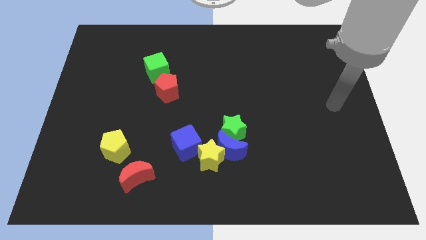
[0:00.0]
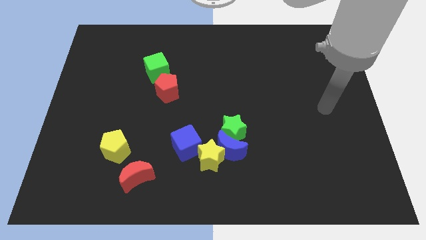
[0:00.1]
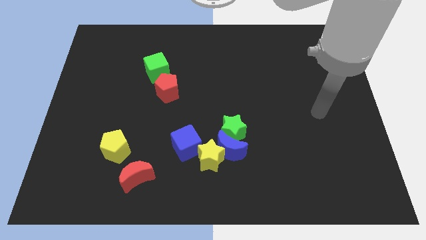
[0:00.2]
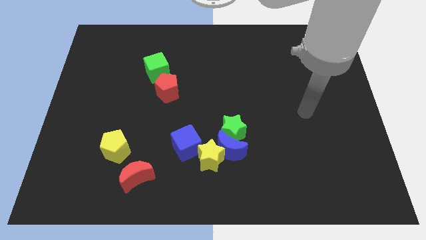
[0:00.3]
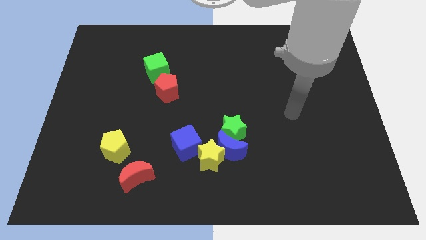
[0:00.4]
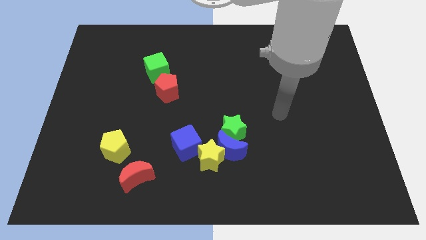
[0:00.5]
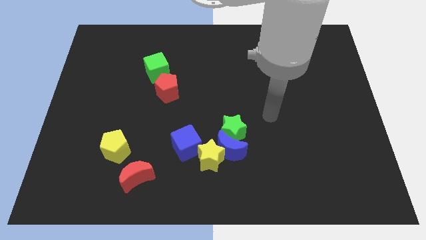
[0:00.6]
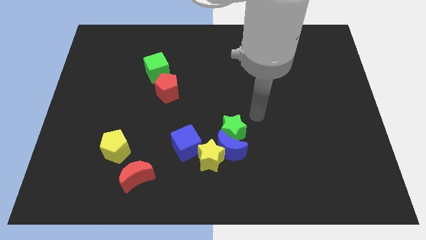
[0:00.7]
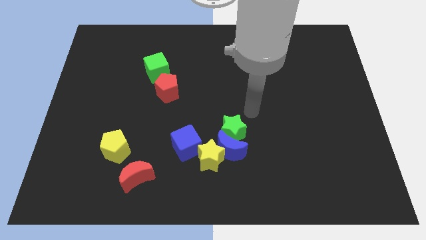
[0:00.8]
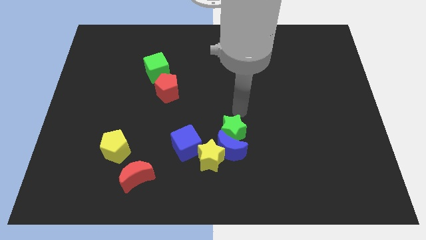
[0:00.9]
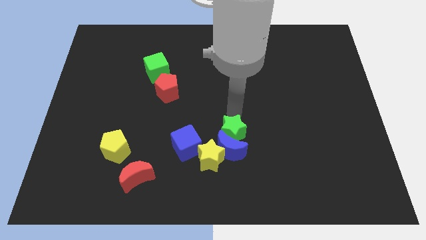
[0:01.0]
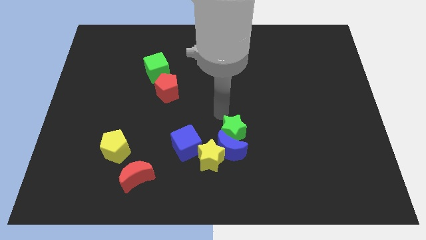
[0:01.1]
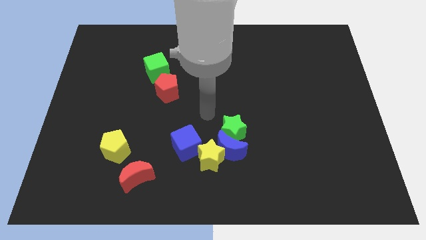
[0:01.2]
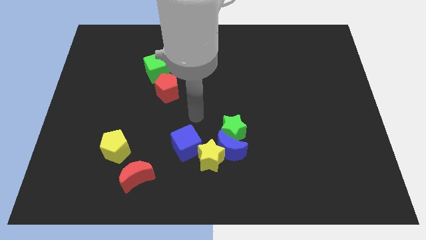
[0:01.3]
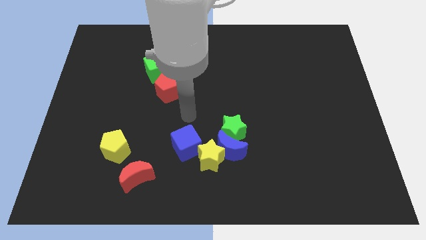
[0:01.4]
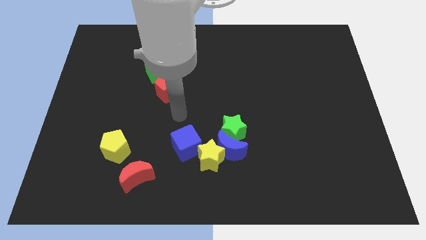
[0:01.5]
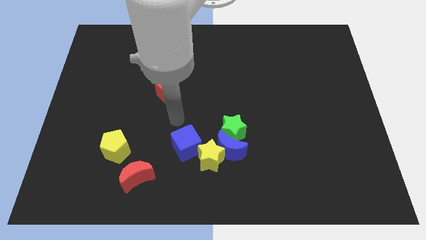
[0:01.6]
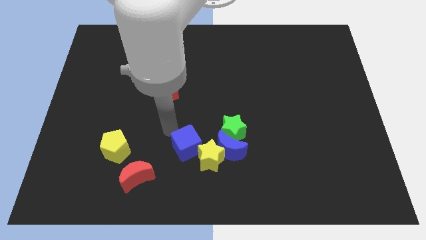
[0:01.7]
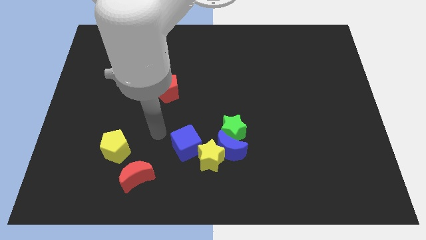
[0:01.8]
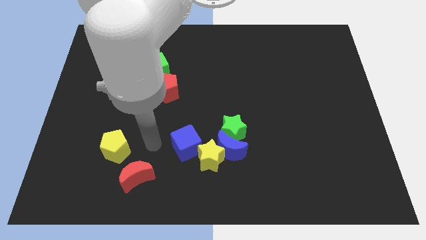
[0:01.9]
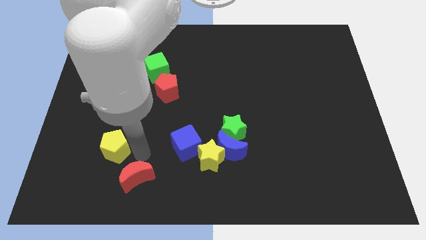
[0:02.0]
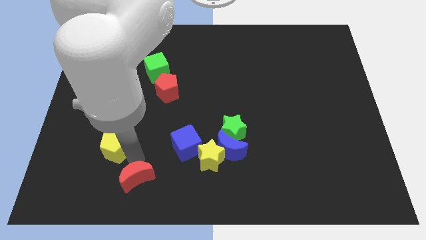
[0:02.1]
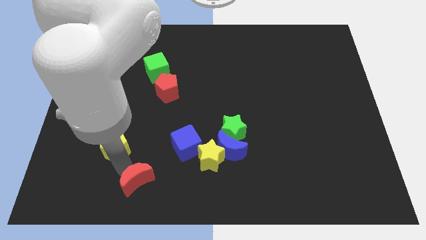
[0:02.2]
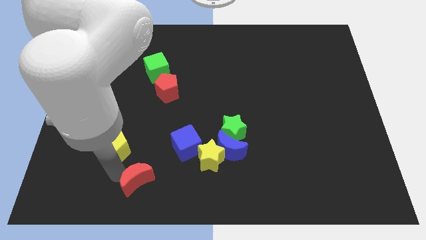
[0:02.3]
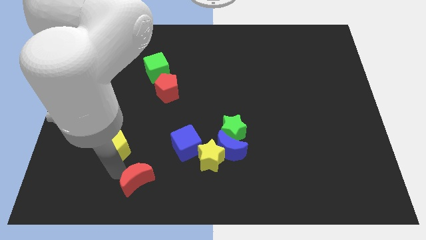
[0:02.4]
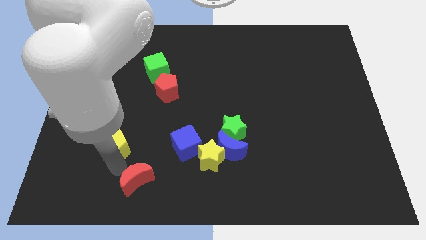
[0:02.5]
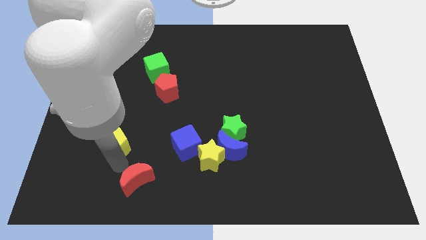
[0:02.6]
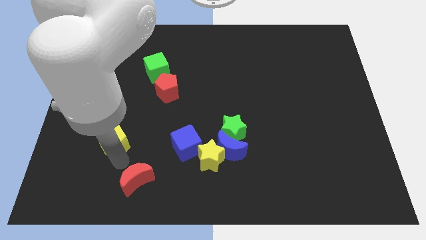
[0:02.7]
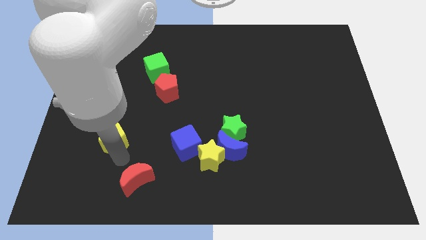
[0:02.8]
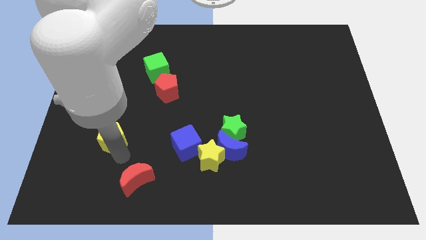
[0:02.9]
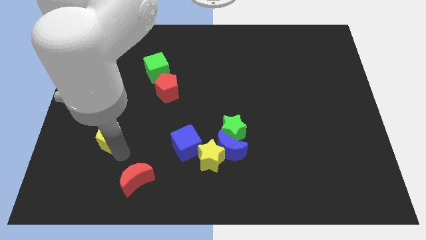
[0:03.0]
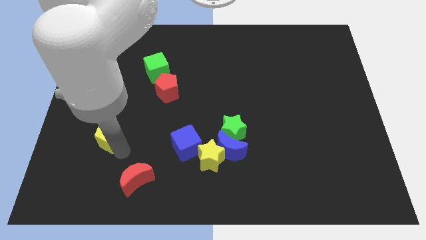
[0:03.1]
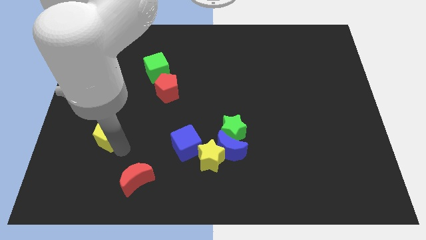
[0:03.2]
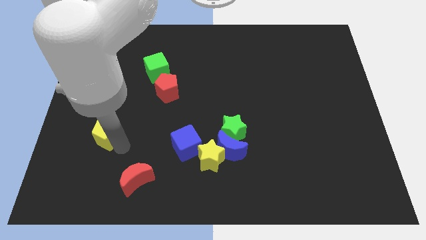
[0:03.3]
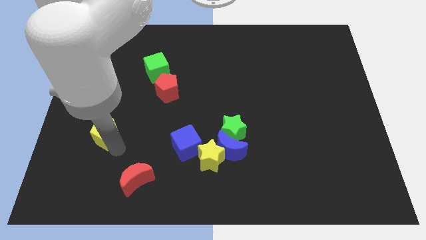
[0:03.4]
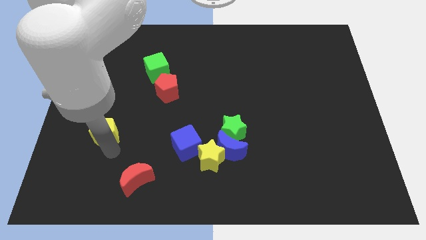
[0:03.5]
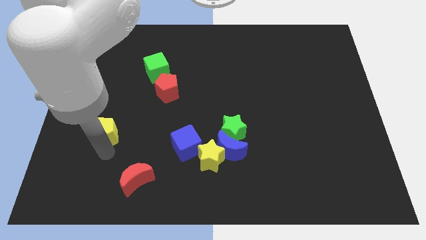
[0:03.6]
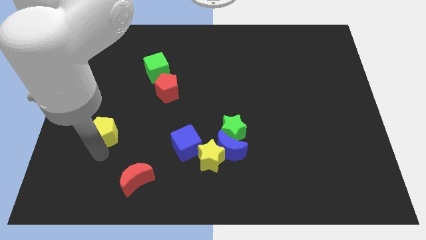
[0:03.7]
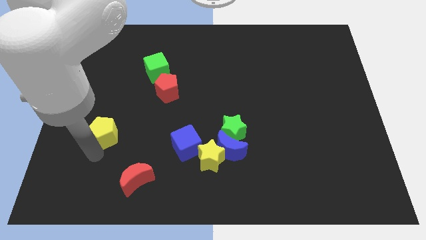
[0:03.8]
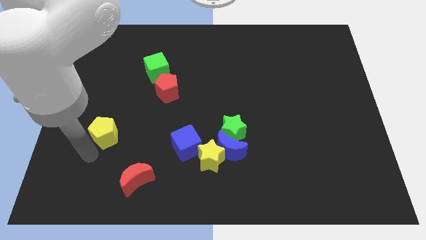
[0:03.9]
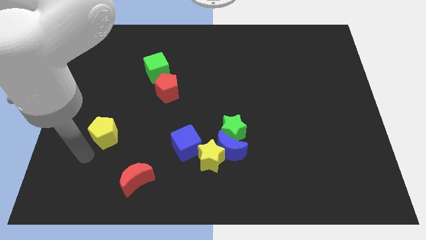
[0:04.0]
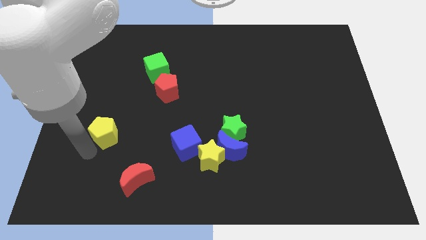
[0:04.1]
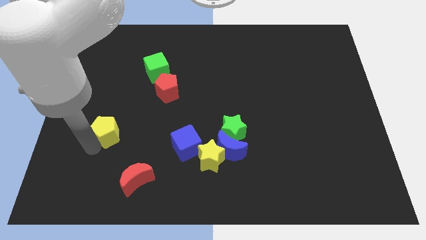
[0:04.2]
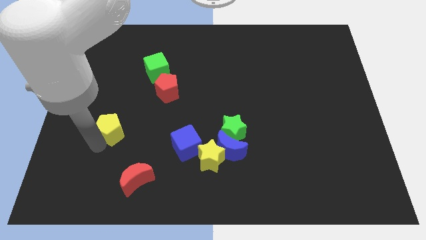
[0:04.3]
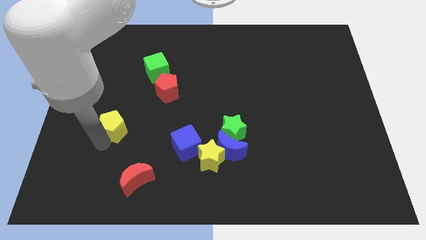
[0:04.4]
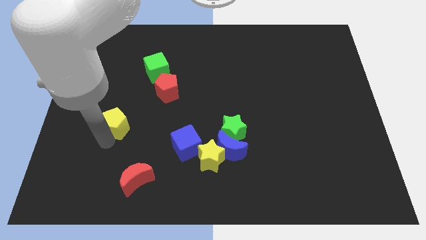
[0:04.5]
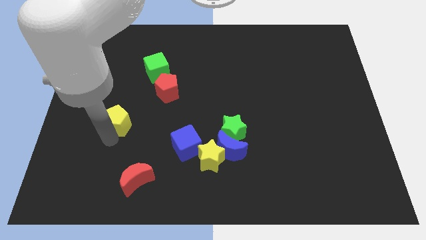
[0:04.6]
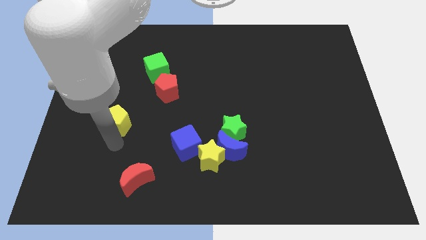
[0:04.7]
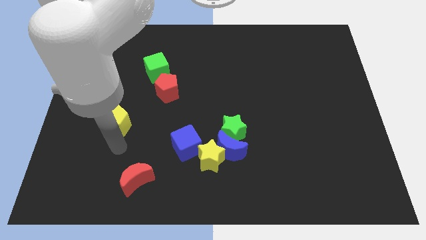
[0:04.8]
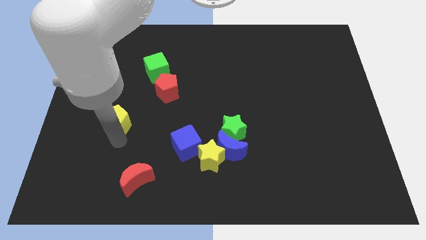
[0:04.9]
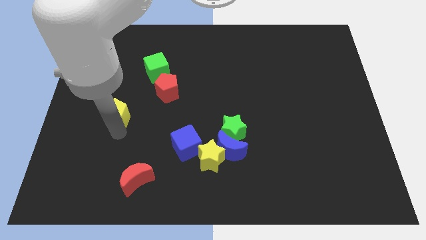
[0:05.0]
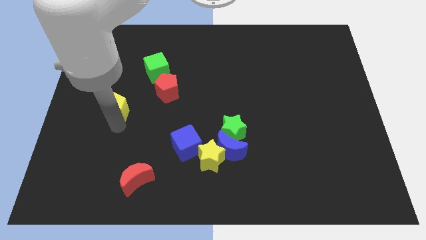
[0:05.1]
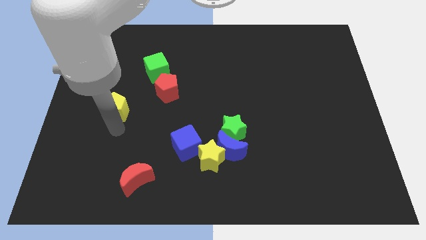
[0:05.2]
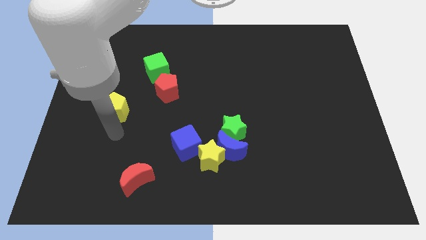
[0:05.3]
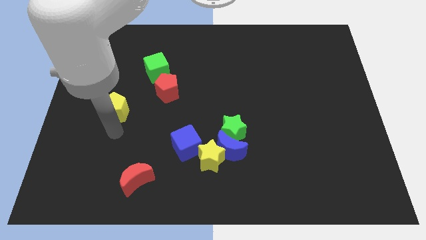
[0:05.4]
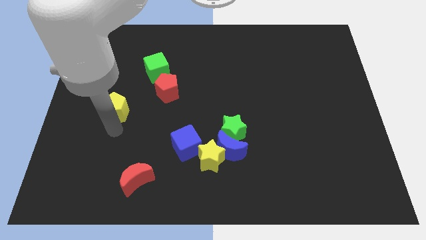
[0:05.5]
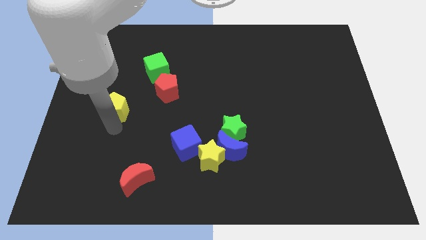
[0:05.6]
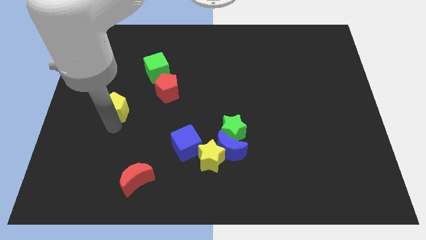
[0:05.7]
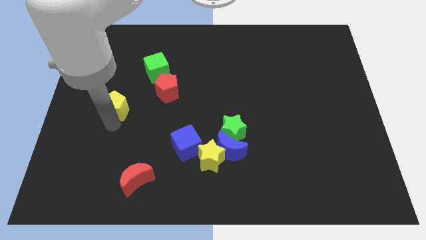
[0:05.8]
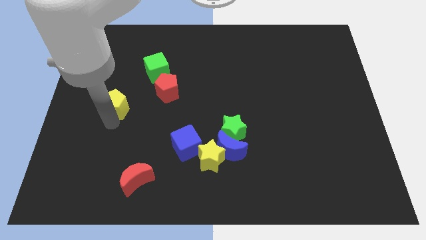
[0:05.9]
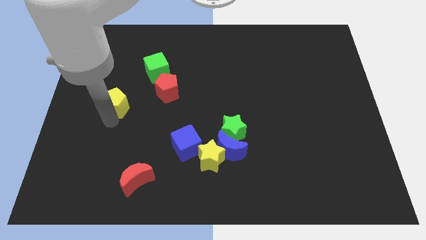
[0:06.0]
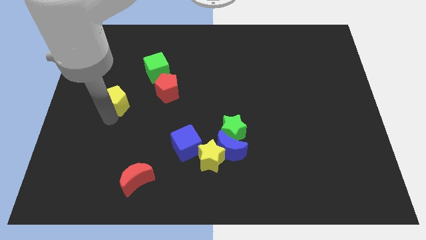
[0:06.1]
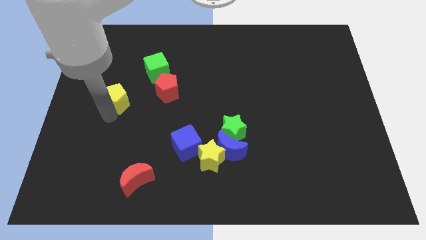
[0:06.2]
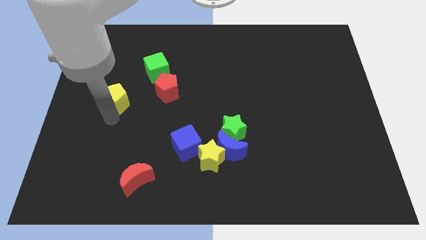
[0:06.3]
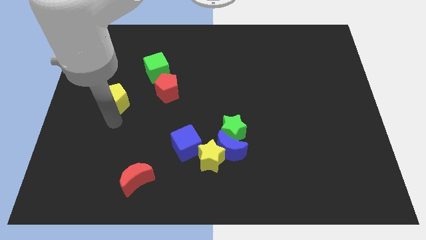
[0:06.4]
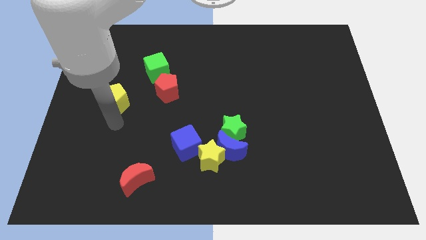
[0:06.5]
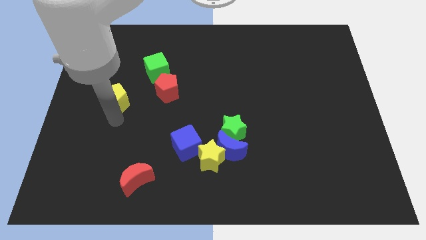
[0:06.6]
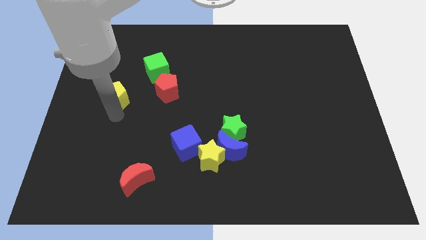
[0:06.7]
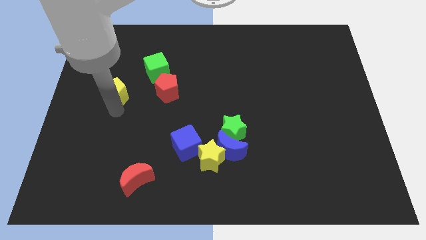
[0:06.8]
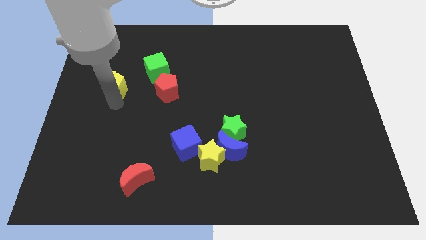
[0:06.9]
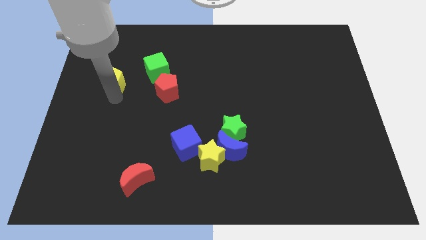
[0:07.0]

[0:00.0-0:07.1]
push the yellow pentagon left of the green cube
